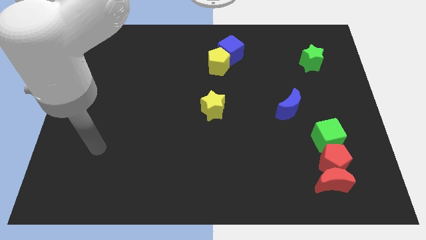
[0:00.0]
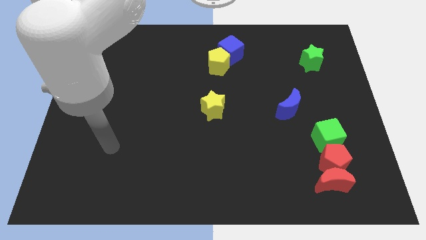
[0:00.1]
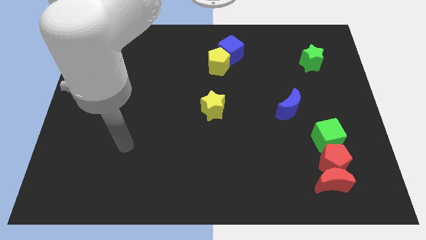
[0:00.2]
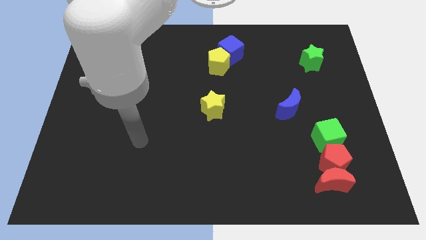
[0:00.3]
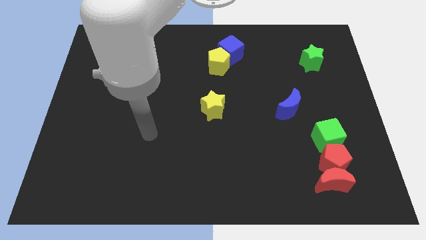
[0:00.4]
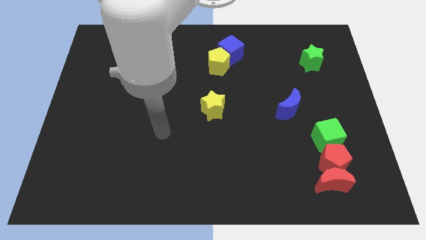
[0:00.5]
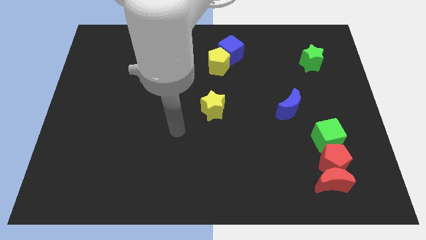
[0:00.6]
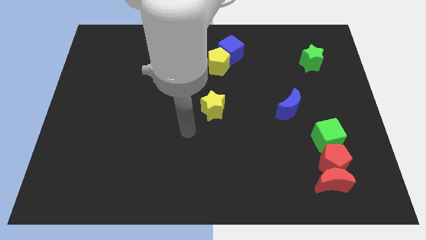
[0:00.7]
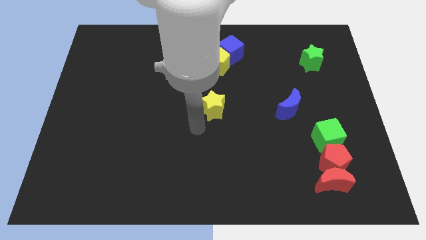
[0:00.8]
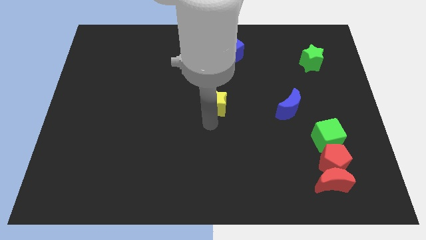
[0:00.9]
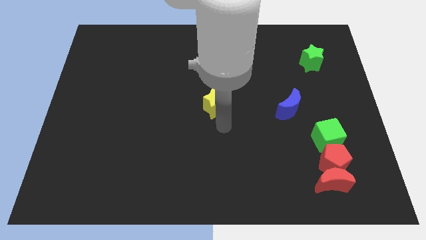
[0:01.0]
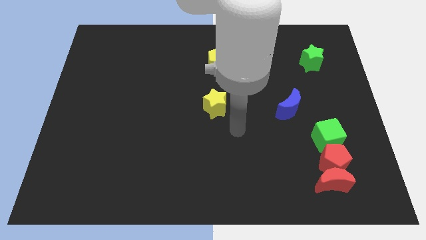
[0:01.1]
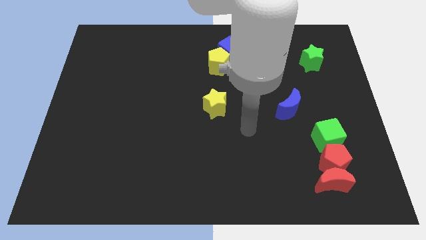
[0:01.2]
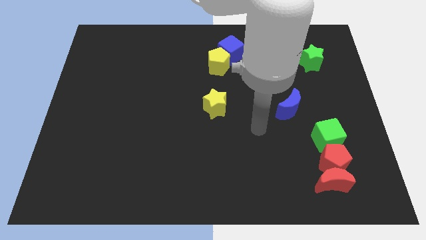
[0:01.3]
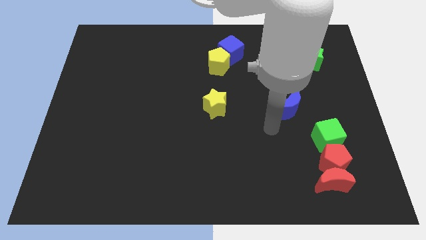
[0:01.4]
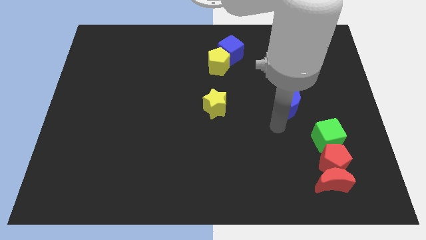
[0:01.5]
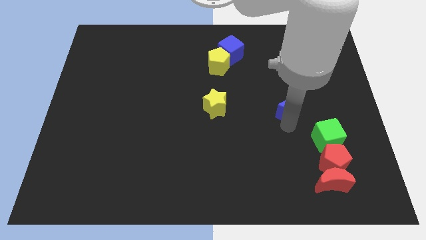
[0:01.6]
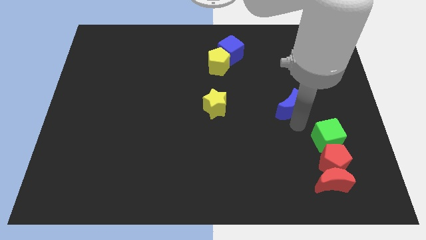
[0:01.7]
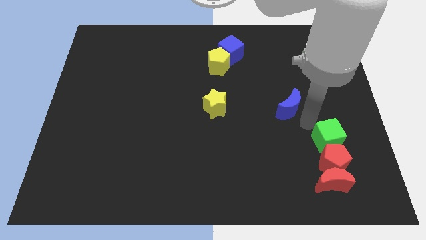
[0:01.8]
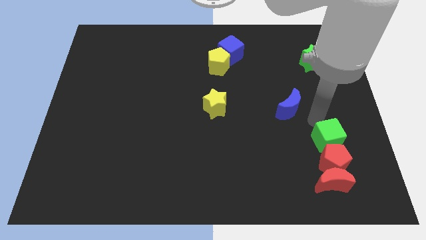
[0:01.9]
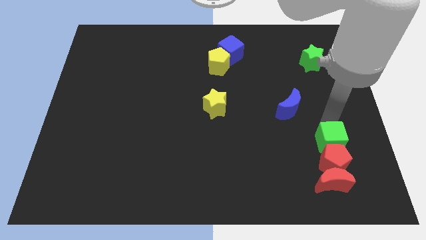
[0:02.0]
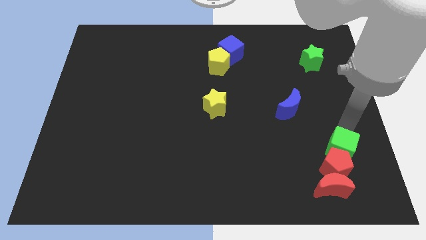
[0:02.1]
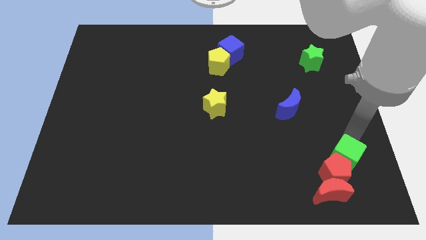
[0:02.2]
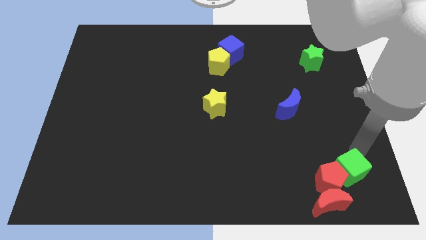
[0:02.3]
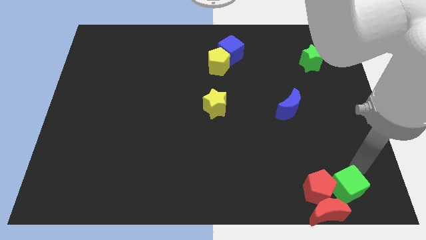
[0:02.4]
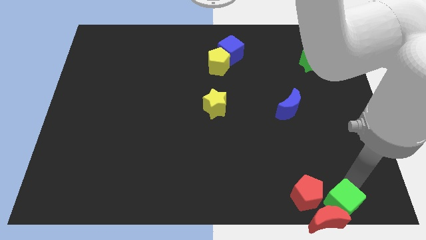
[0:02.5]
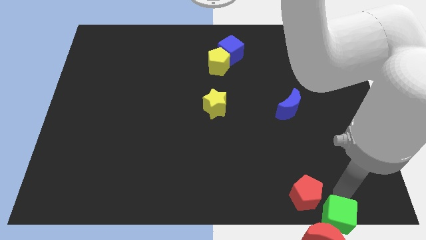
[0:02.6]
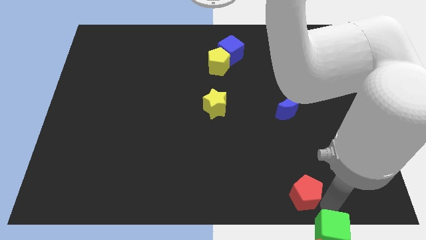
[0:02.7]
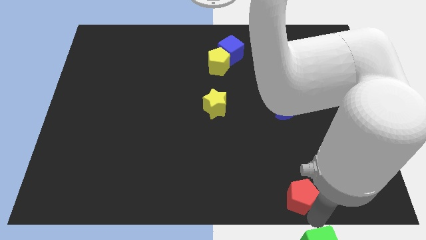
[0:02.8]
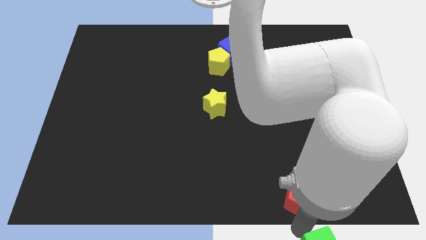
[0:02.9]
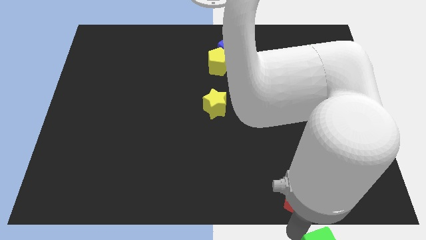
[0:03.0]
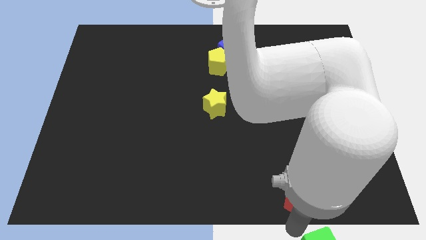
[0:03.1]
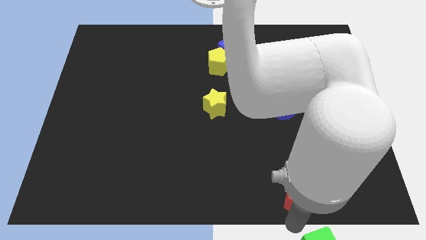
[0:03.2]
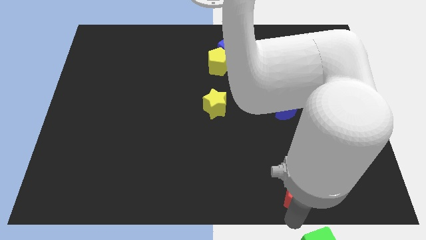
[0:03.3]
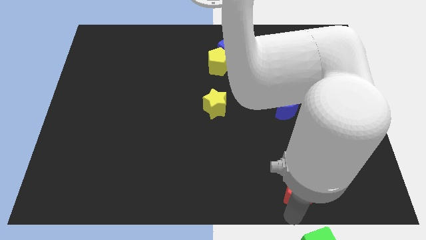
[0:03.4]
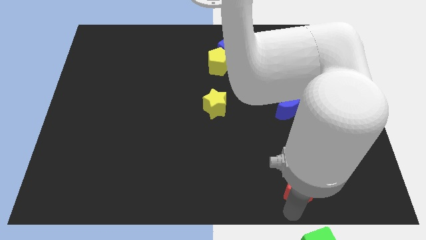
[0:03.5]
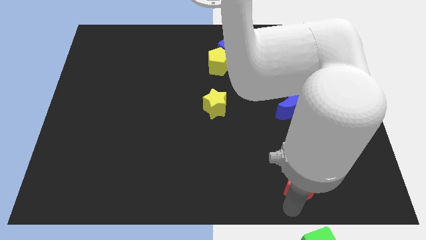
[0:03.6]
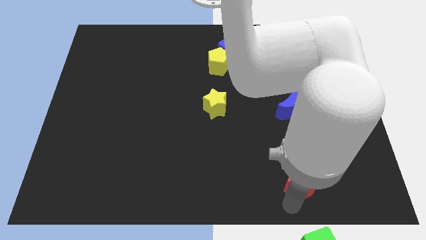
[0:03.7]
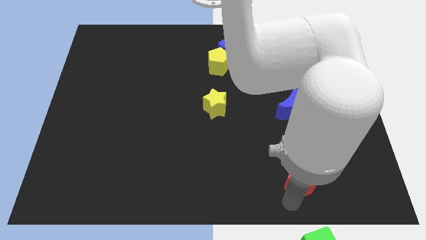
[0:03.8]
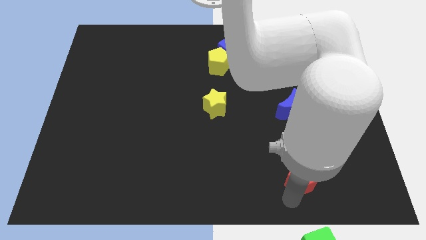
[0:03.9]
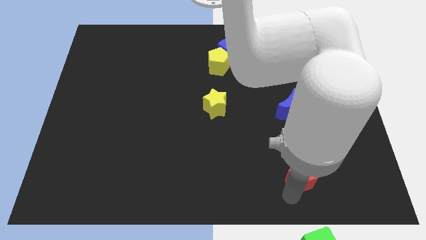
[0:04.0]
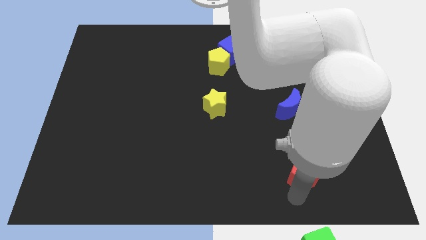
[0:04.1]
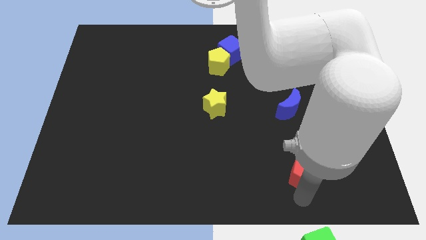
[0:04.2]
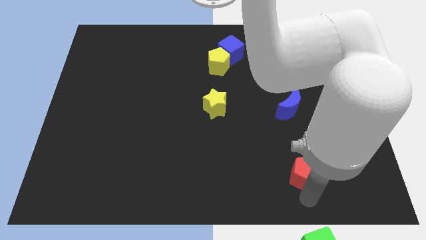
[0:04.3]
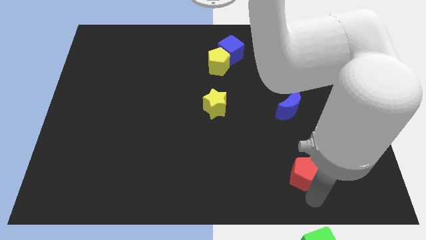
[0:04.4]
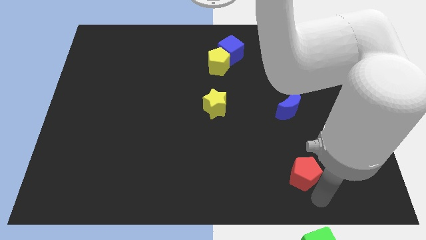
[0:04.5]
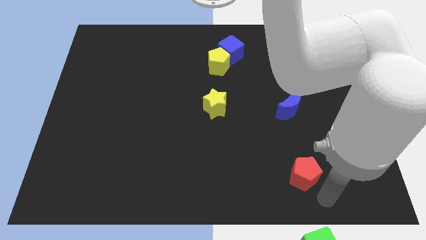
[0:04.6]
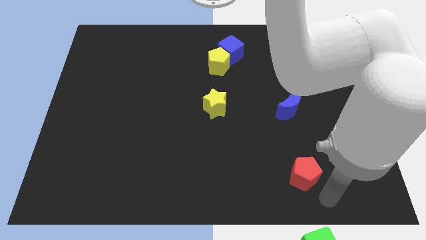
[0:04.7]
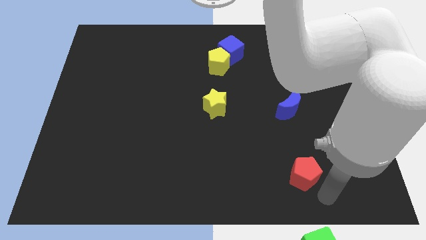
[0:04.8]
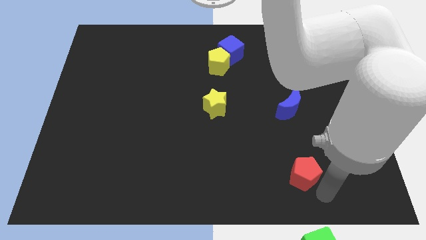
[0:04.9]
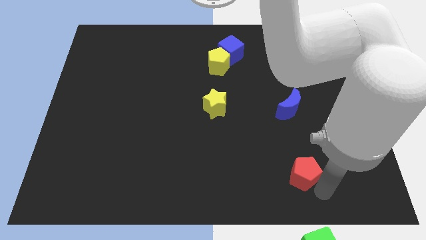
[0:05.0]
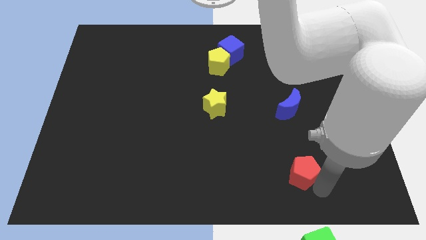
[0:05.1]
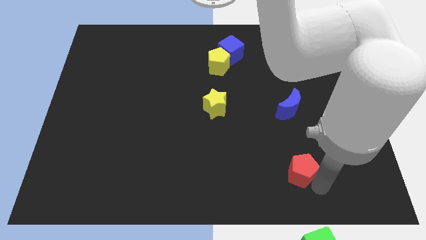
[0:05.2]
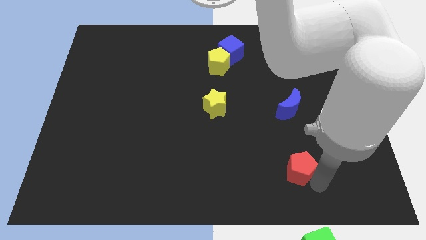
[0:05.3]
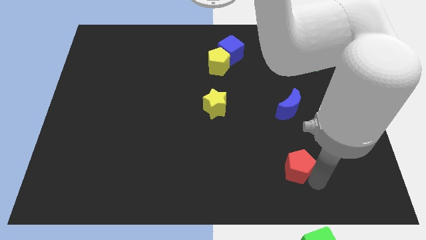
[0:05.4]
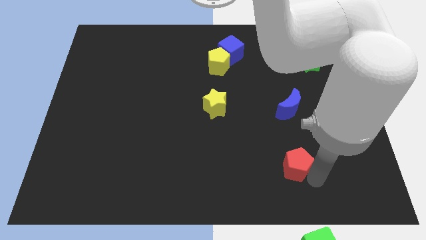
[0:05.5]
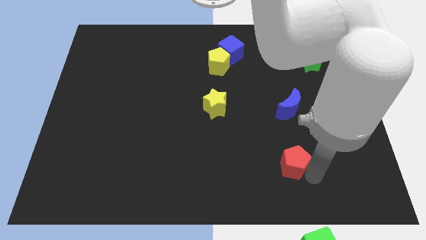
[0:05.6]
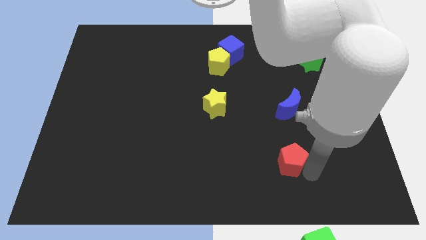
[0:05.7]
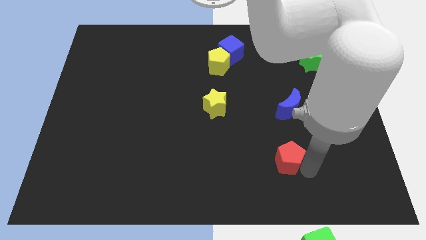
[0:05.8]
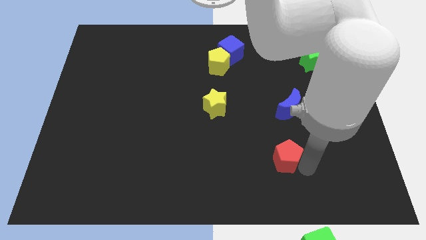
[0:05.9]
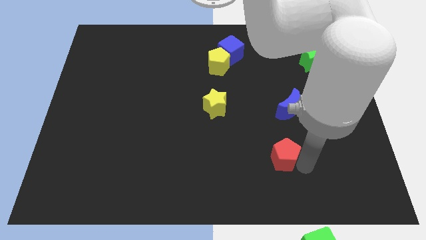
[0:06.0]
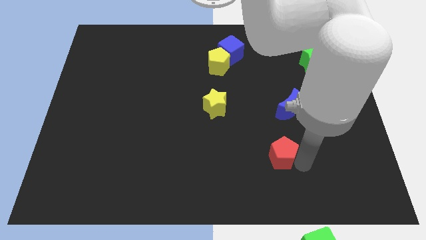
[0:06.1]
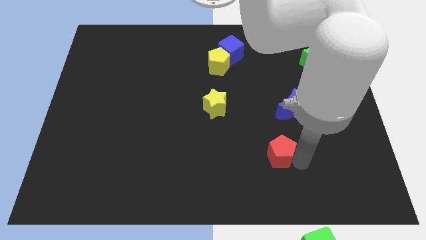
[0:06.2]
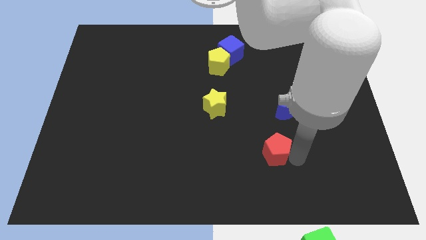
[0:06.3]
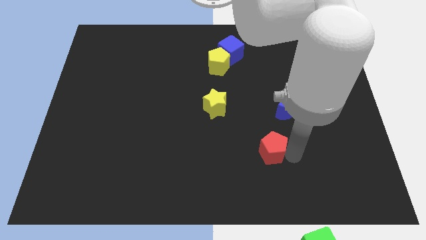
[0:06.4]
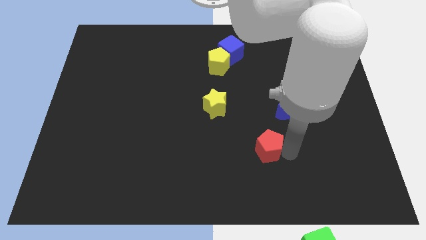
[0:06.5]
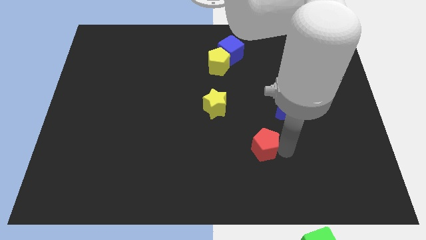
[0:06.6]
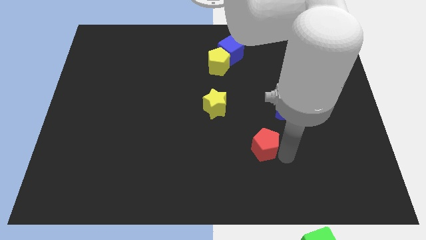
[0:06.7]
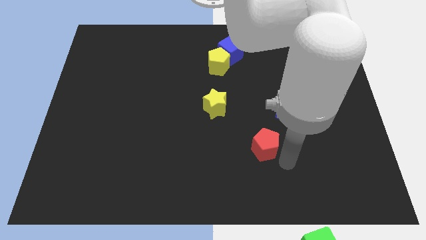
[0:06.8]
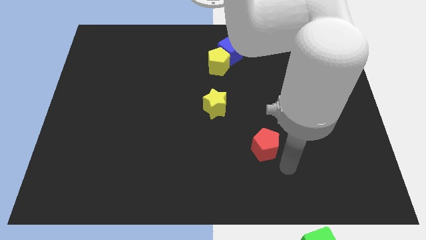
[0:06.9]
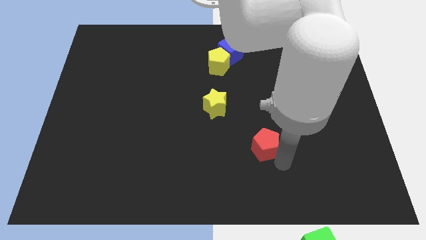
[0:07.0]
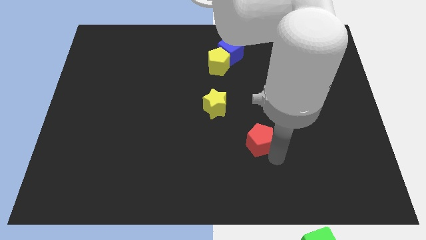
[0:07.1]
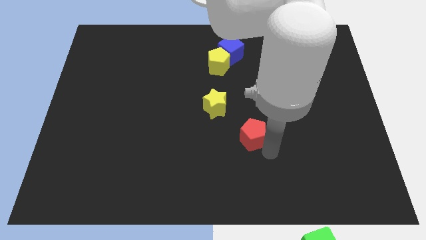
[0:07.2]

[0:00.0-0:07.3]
put the red pentagon to the bottom right side of the yellow star
